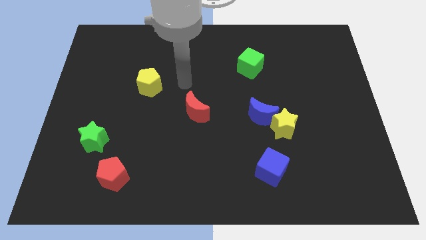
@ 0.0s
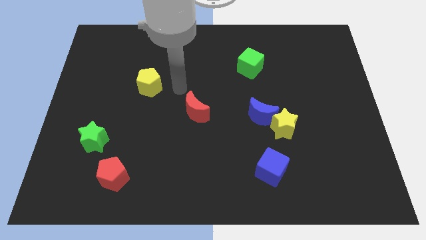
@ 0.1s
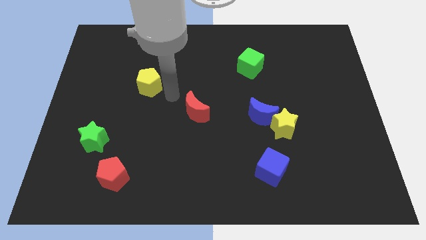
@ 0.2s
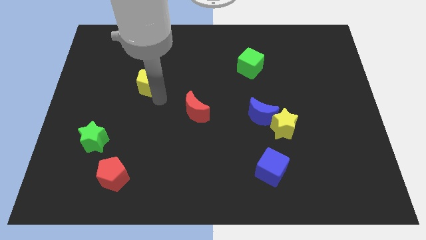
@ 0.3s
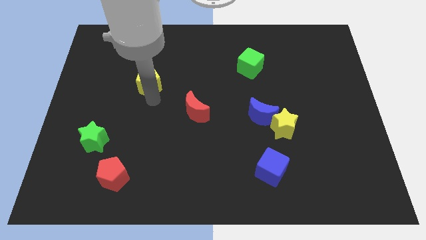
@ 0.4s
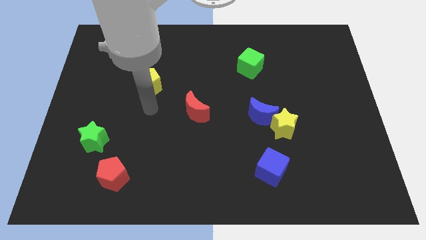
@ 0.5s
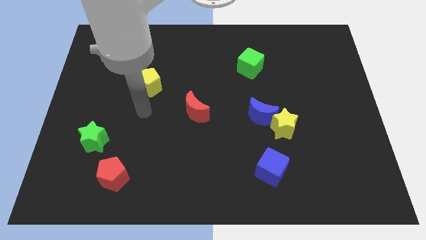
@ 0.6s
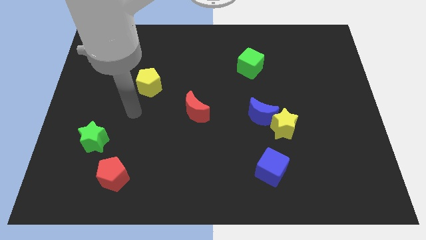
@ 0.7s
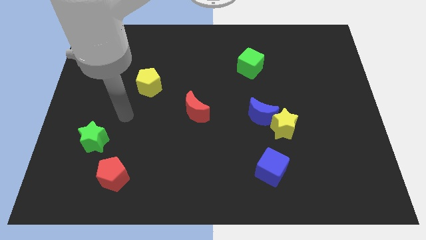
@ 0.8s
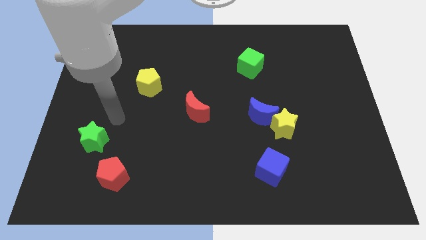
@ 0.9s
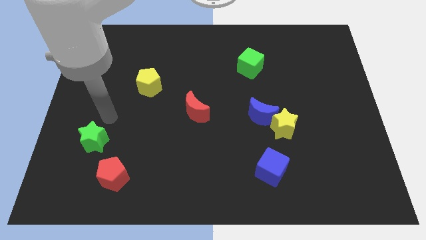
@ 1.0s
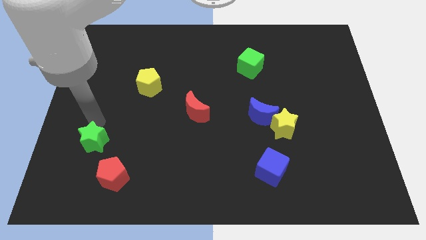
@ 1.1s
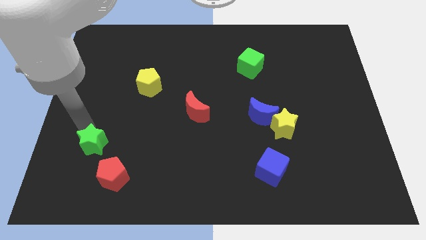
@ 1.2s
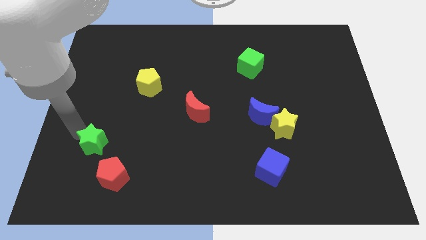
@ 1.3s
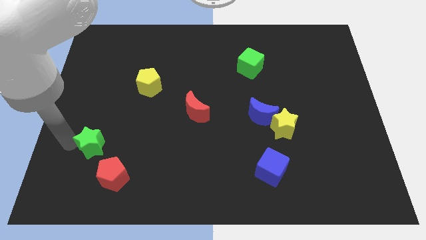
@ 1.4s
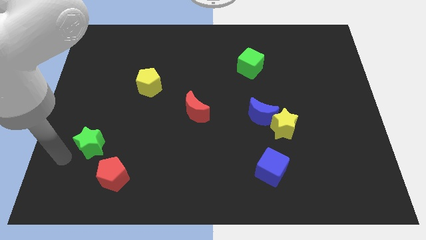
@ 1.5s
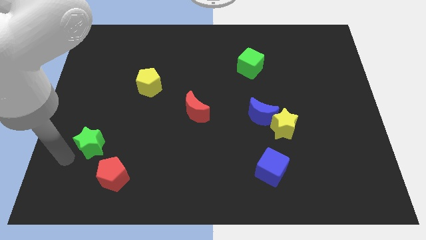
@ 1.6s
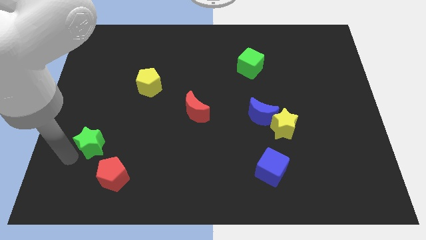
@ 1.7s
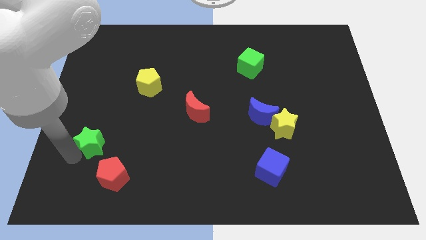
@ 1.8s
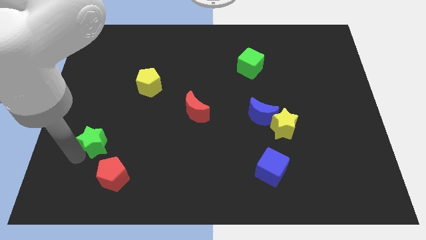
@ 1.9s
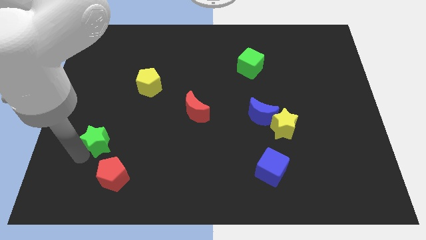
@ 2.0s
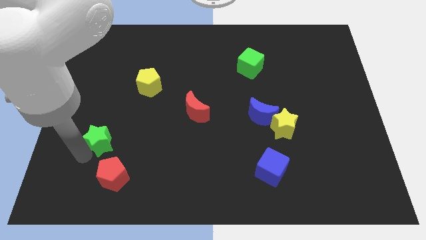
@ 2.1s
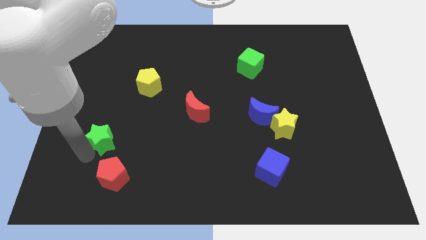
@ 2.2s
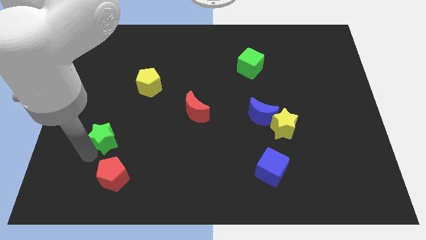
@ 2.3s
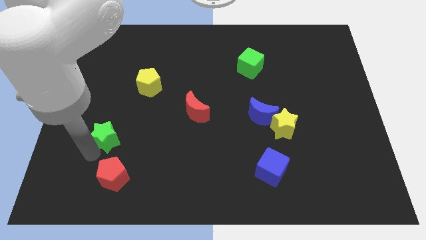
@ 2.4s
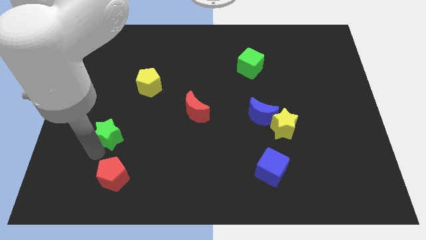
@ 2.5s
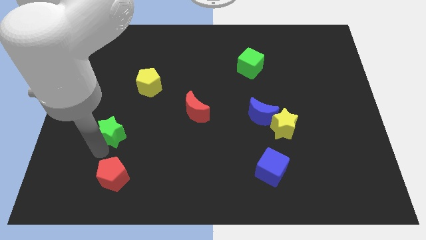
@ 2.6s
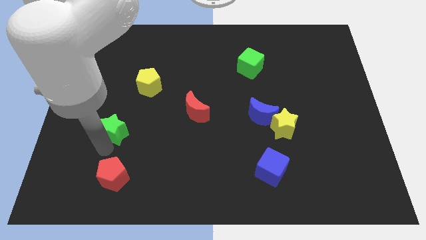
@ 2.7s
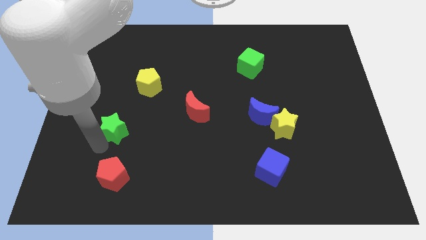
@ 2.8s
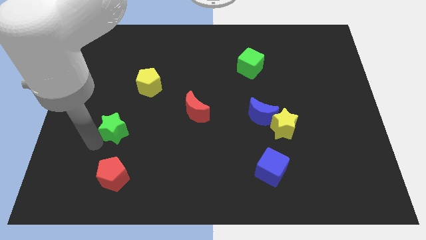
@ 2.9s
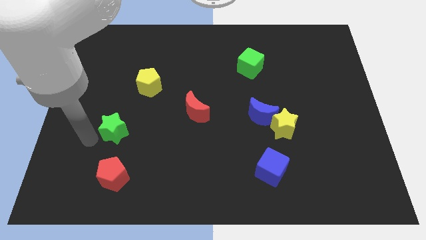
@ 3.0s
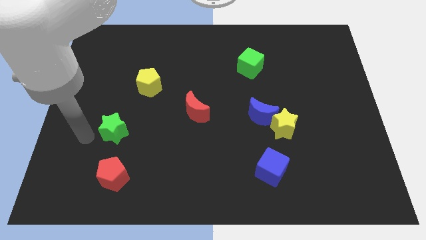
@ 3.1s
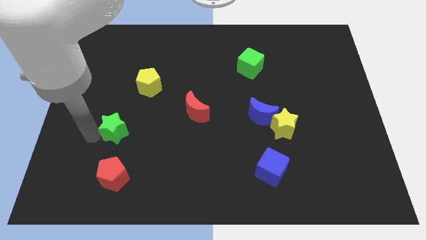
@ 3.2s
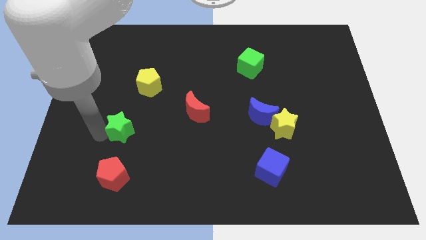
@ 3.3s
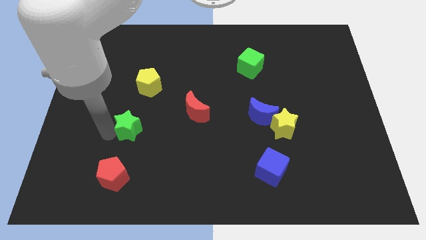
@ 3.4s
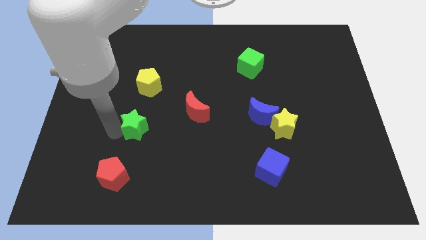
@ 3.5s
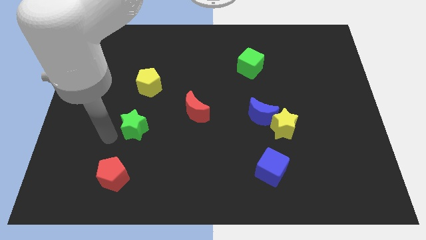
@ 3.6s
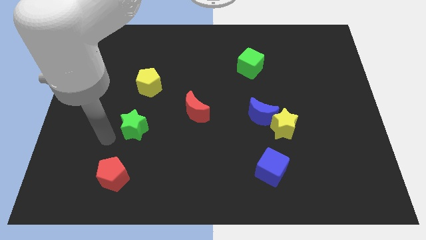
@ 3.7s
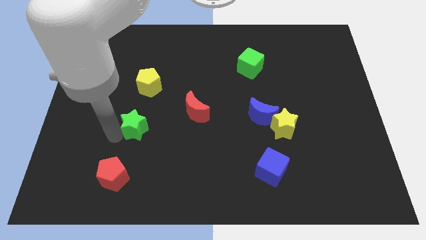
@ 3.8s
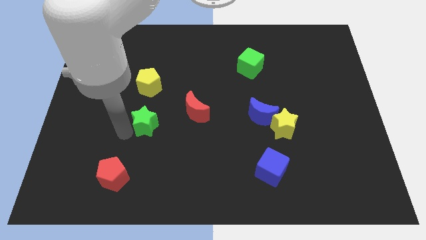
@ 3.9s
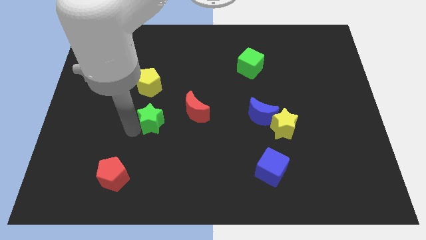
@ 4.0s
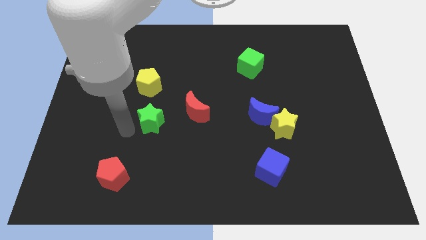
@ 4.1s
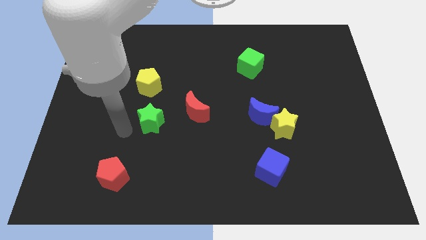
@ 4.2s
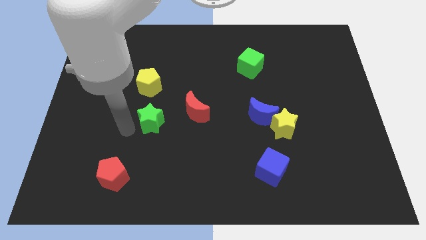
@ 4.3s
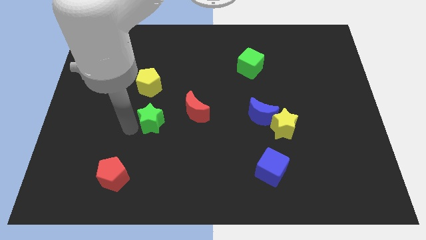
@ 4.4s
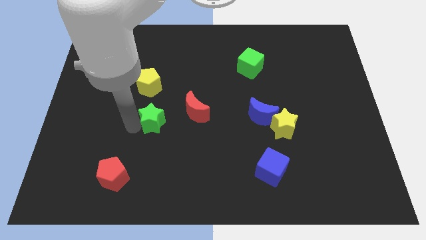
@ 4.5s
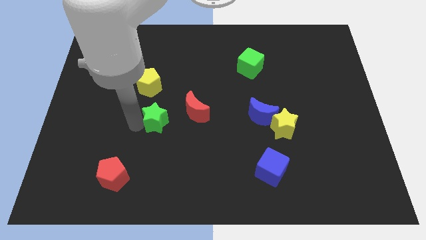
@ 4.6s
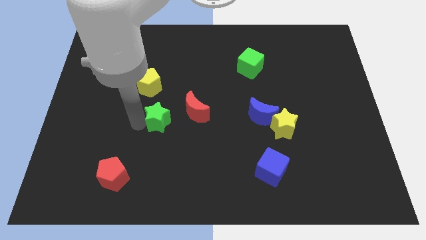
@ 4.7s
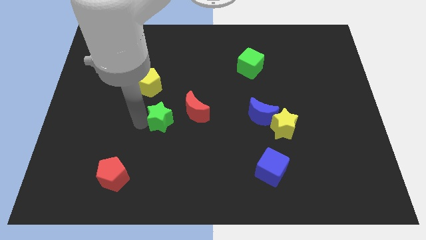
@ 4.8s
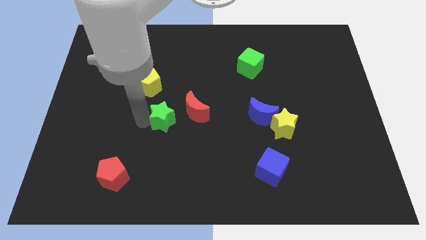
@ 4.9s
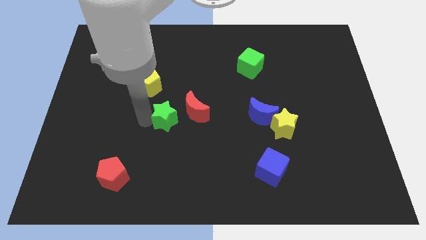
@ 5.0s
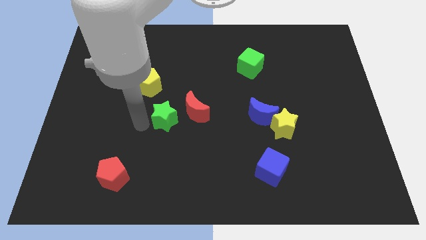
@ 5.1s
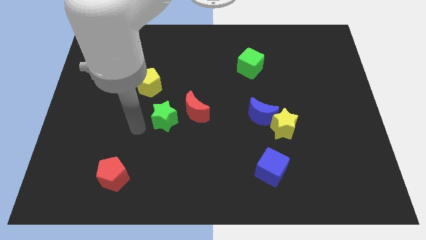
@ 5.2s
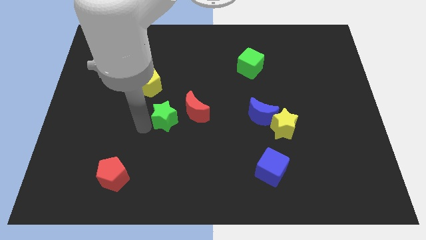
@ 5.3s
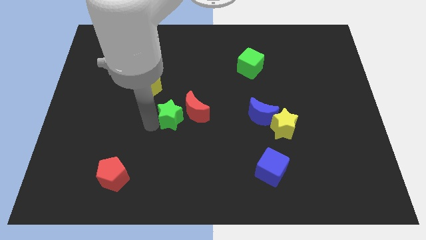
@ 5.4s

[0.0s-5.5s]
move the green star next to the red moon

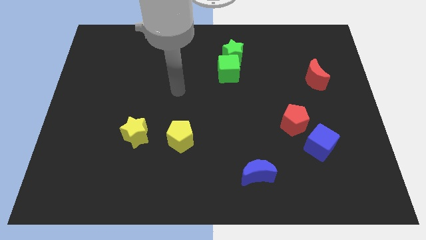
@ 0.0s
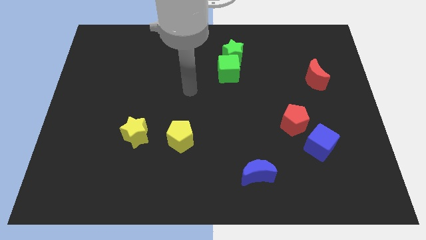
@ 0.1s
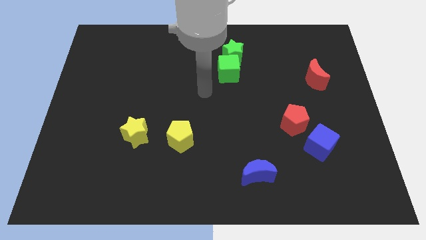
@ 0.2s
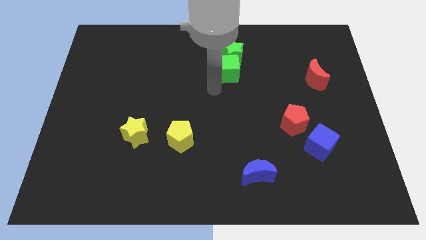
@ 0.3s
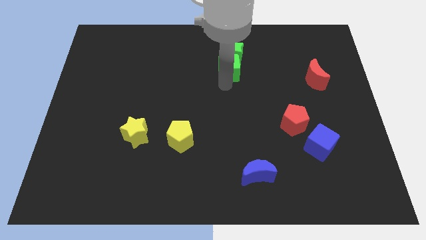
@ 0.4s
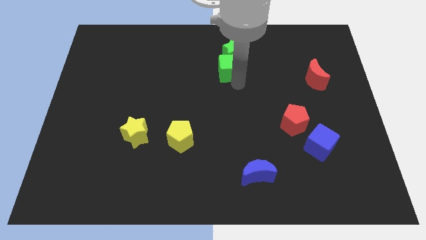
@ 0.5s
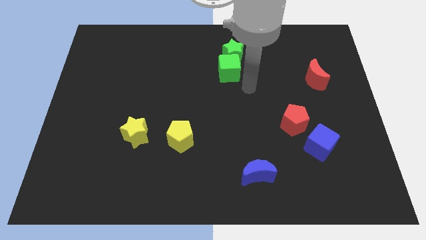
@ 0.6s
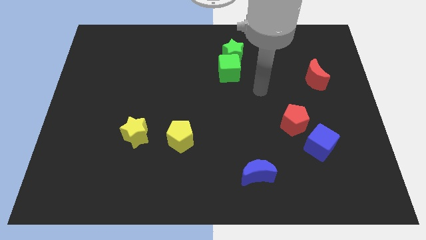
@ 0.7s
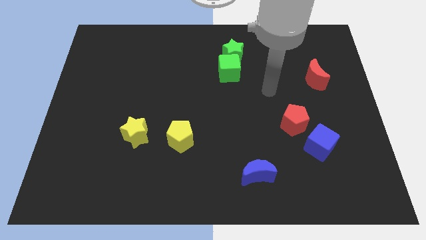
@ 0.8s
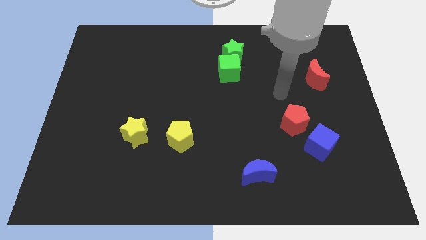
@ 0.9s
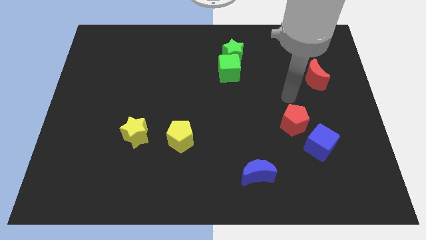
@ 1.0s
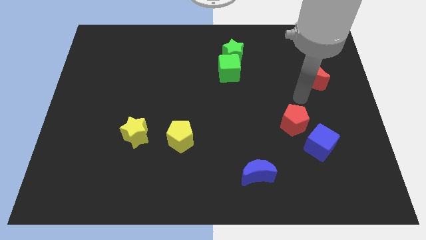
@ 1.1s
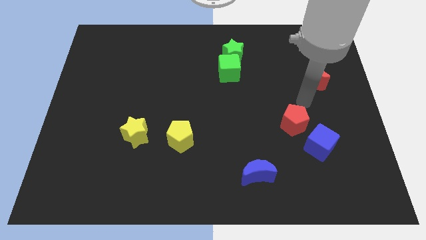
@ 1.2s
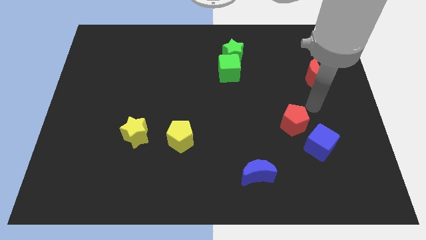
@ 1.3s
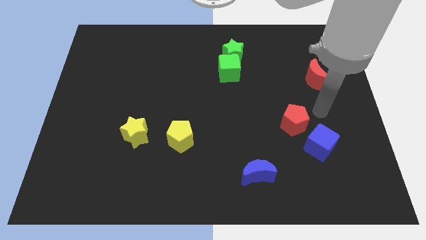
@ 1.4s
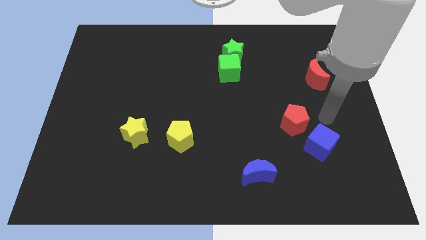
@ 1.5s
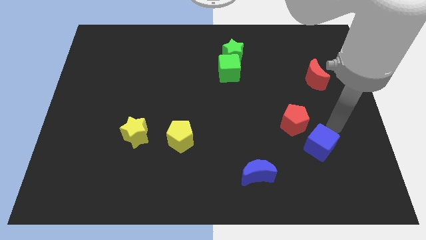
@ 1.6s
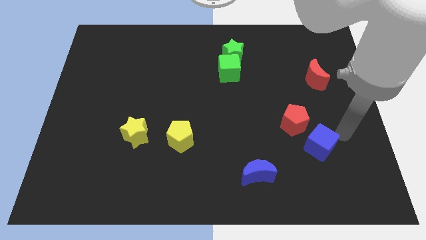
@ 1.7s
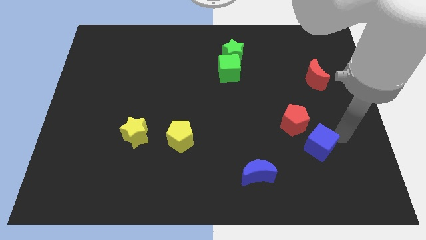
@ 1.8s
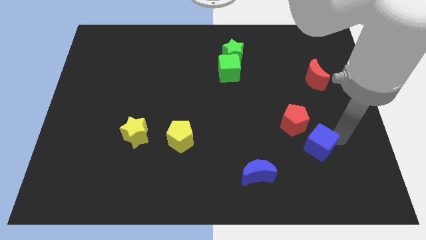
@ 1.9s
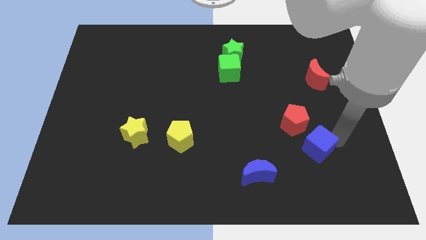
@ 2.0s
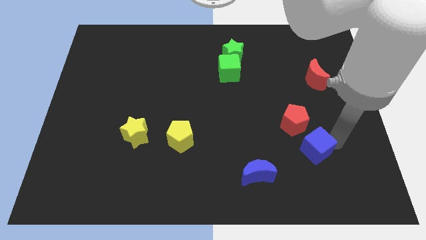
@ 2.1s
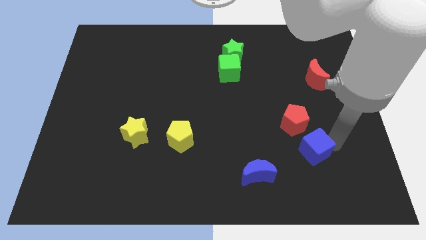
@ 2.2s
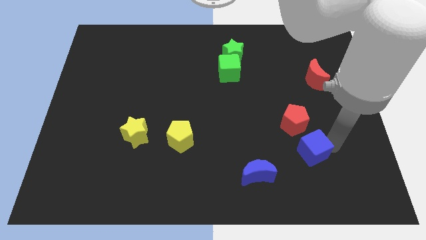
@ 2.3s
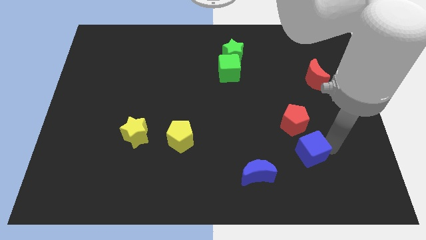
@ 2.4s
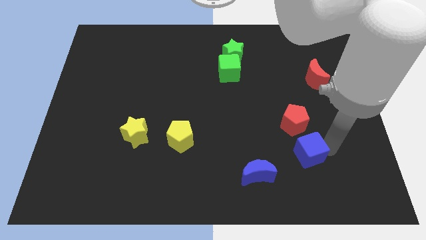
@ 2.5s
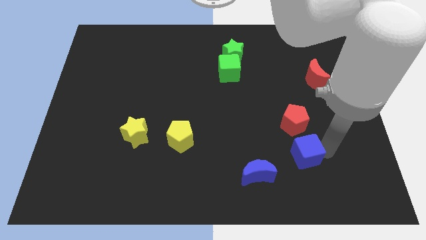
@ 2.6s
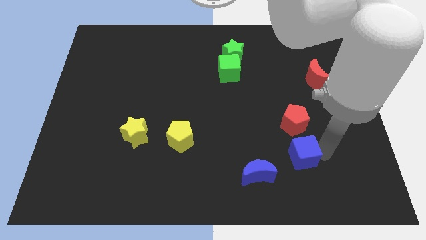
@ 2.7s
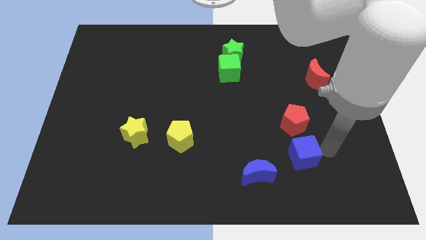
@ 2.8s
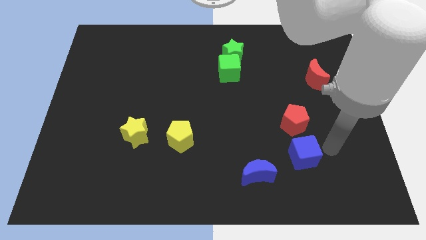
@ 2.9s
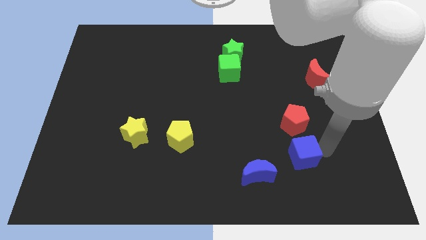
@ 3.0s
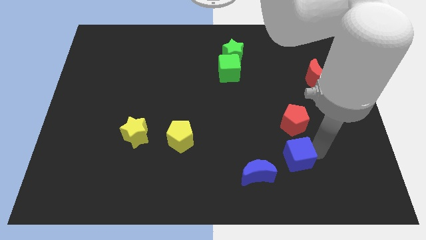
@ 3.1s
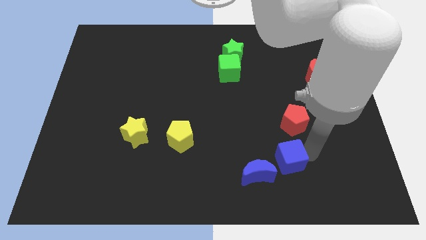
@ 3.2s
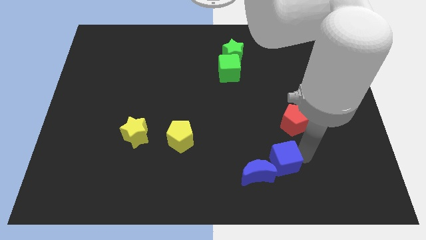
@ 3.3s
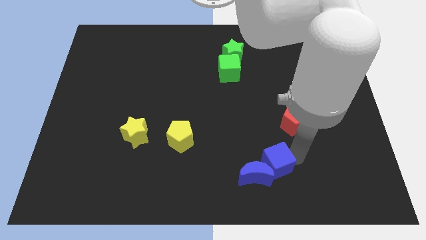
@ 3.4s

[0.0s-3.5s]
move the blue cube close to the blue moon
